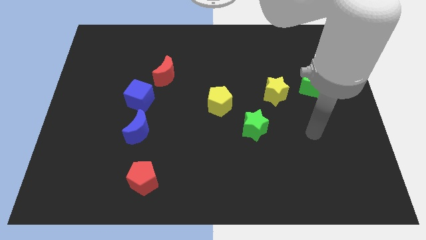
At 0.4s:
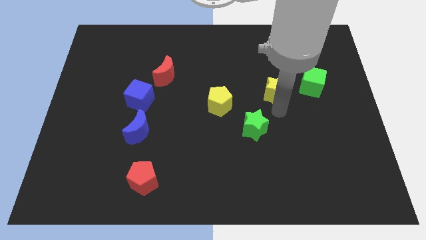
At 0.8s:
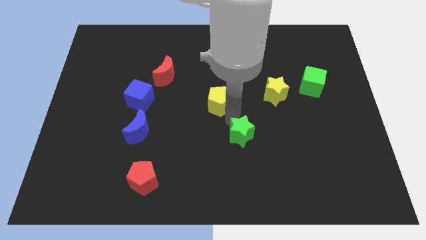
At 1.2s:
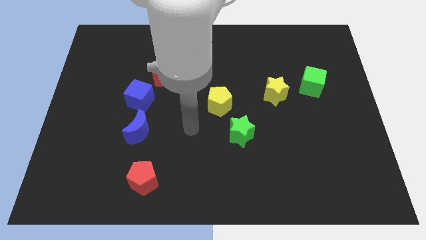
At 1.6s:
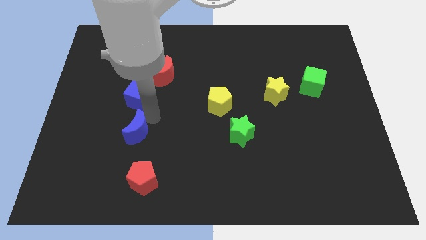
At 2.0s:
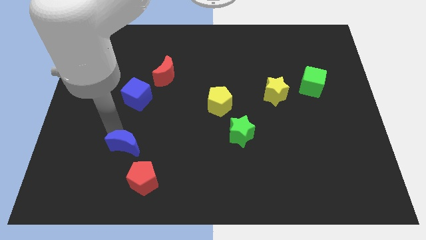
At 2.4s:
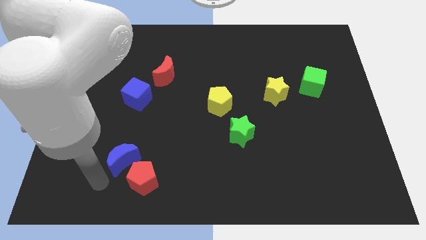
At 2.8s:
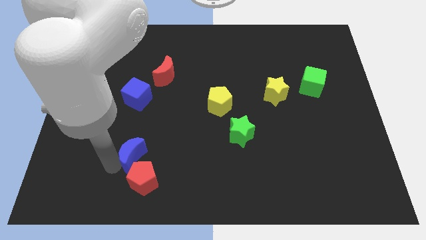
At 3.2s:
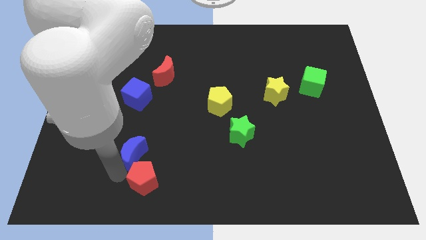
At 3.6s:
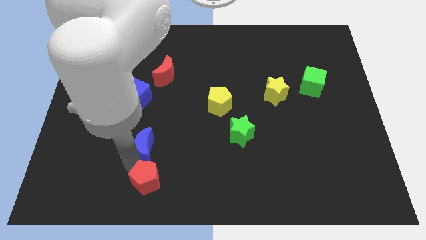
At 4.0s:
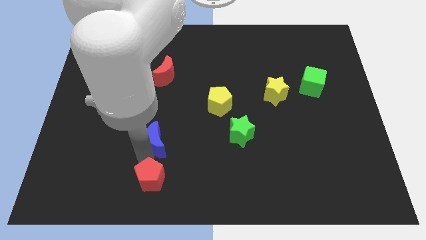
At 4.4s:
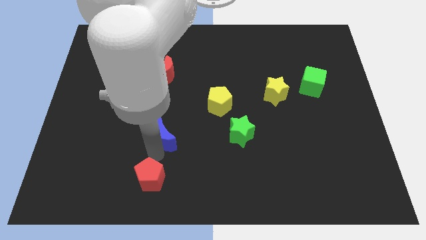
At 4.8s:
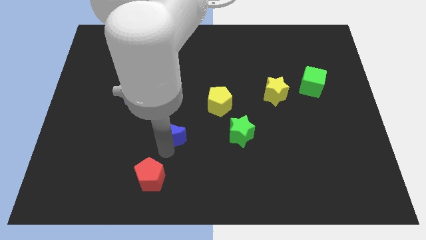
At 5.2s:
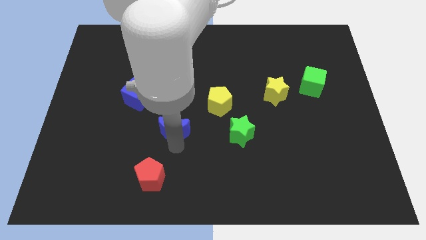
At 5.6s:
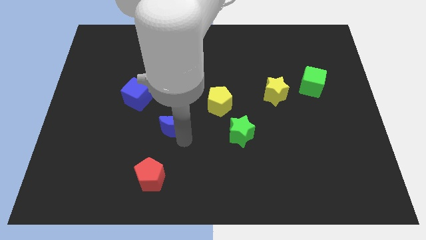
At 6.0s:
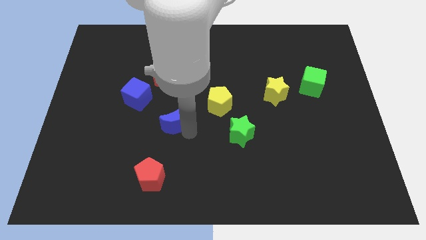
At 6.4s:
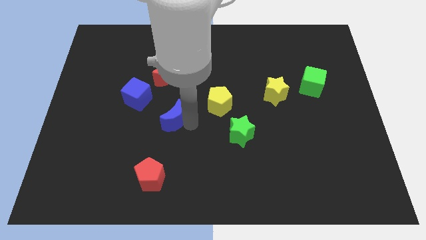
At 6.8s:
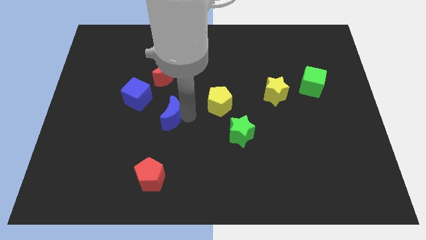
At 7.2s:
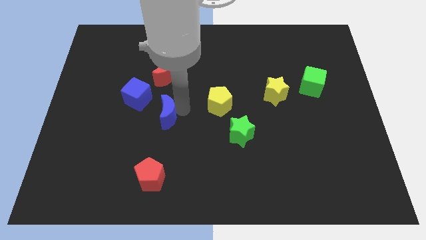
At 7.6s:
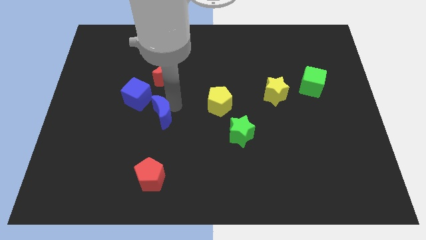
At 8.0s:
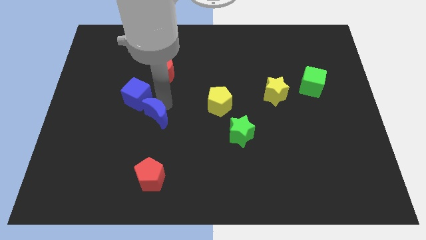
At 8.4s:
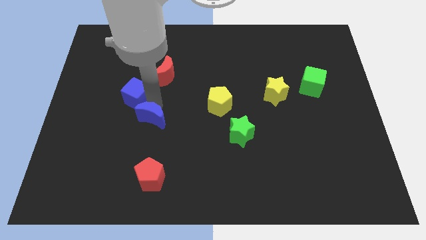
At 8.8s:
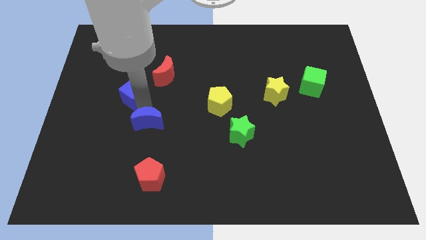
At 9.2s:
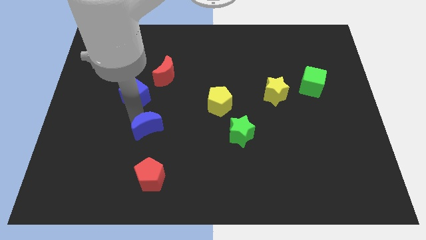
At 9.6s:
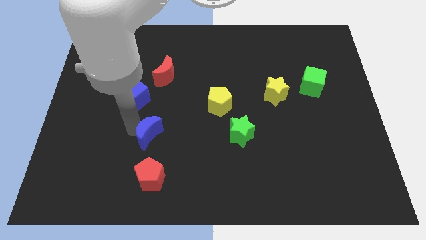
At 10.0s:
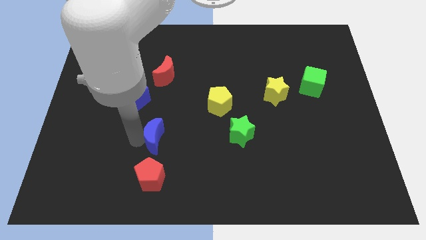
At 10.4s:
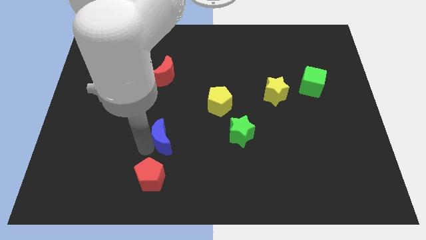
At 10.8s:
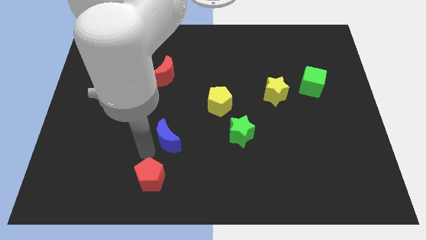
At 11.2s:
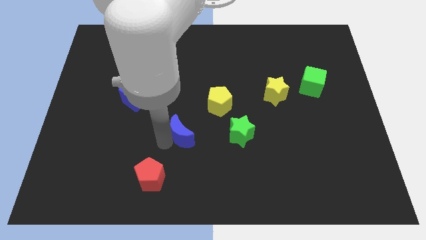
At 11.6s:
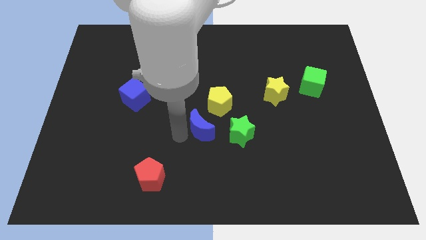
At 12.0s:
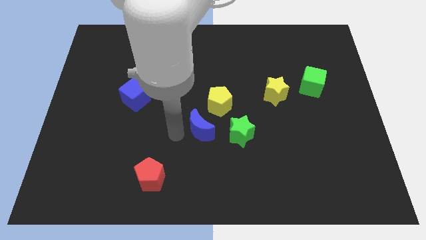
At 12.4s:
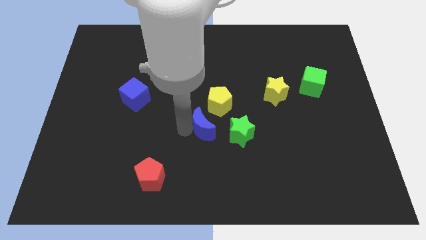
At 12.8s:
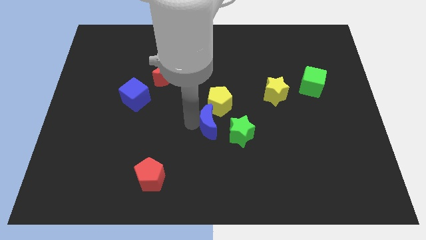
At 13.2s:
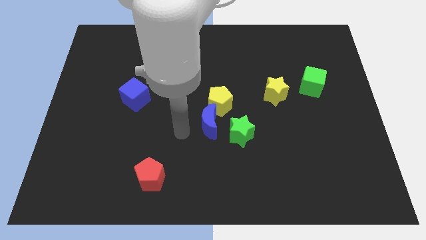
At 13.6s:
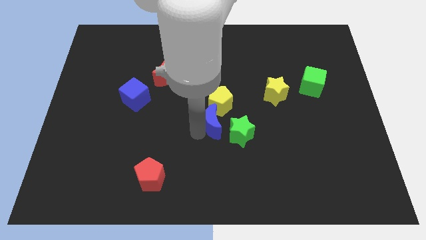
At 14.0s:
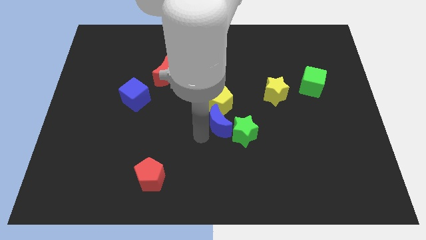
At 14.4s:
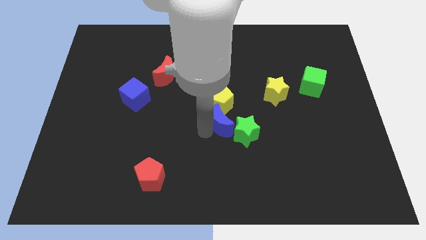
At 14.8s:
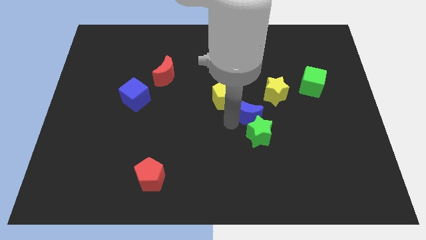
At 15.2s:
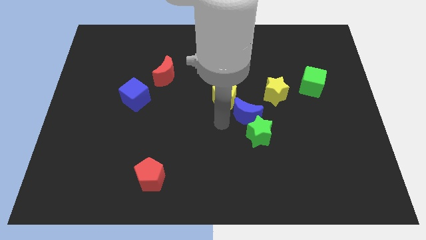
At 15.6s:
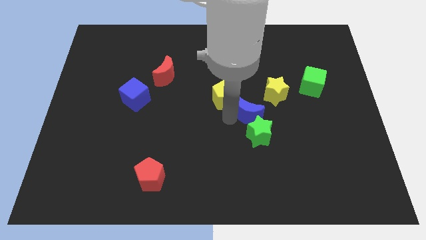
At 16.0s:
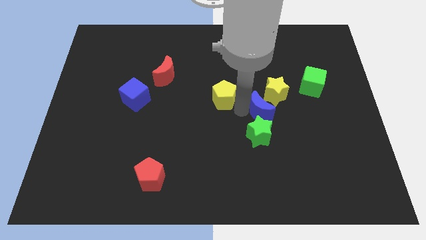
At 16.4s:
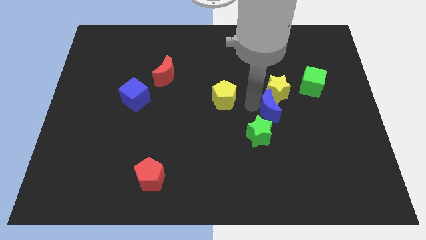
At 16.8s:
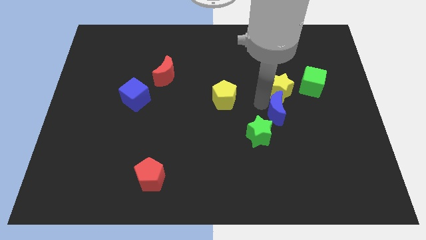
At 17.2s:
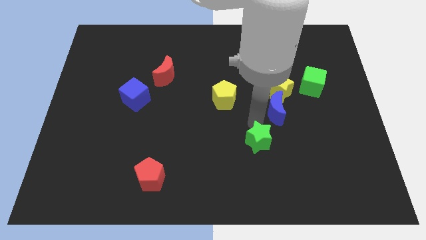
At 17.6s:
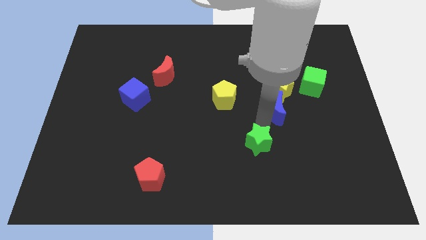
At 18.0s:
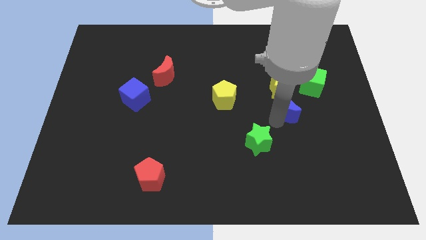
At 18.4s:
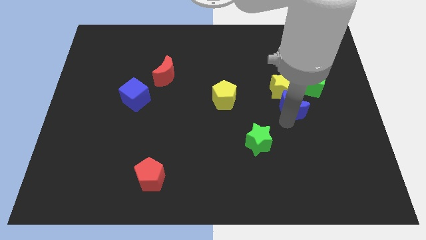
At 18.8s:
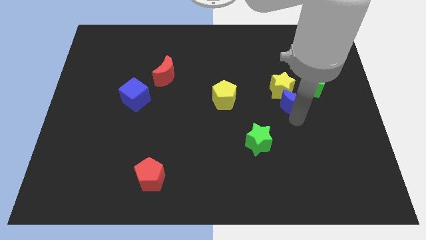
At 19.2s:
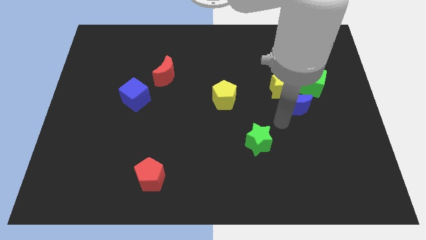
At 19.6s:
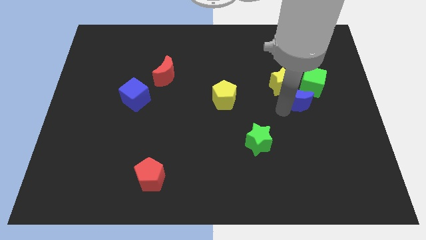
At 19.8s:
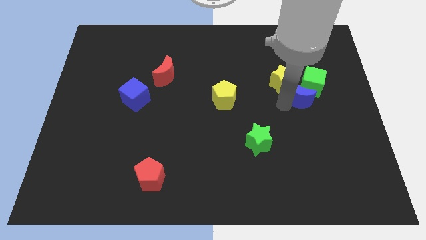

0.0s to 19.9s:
put the blue moon towards the green cube

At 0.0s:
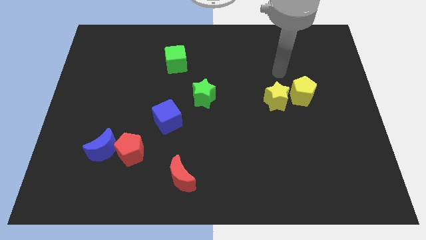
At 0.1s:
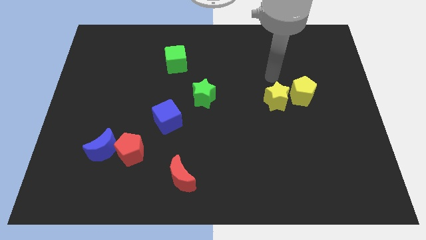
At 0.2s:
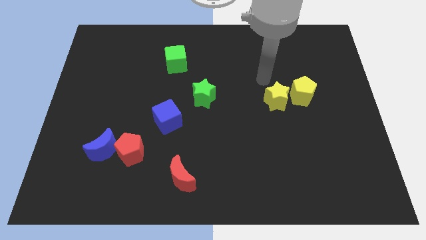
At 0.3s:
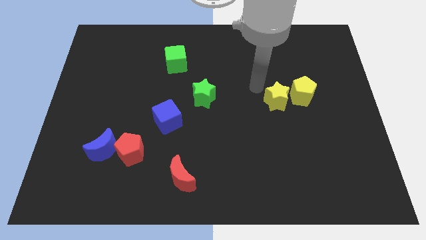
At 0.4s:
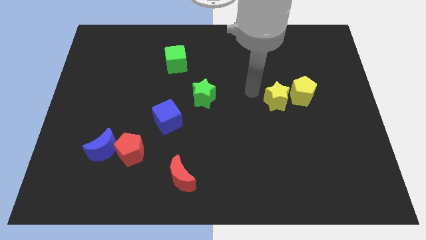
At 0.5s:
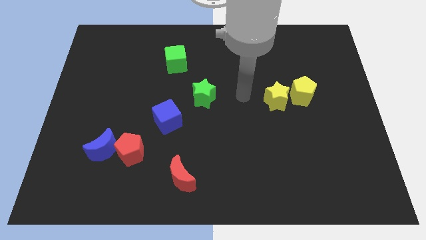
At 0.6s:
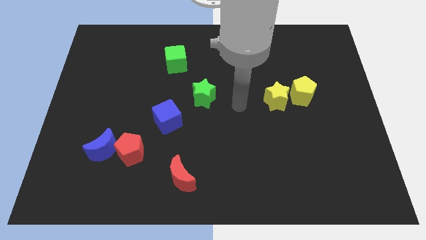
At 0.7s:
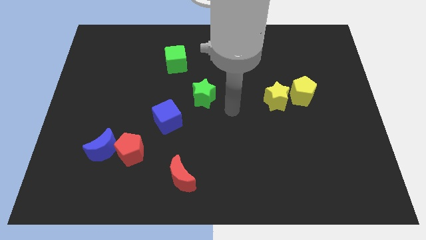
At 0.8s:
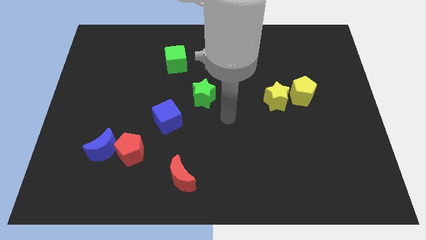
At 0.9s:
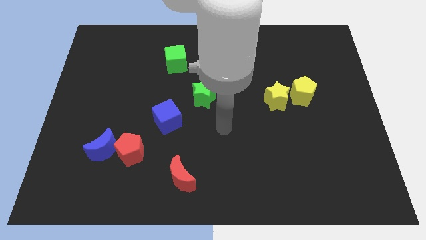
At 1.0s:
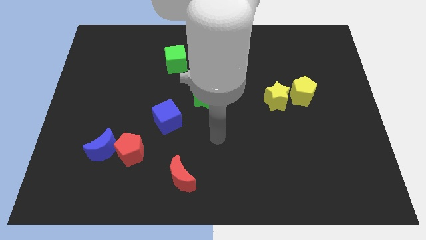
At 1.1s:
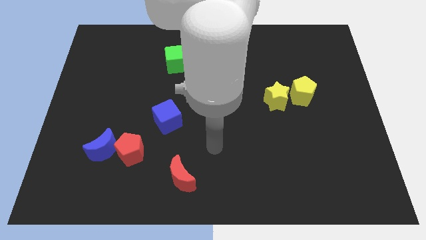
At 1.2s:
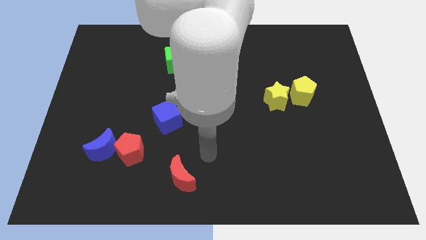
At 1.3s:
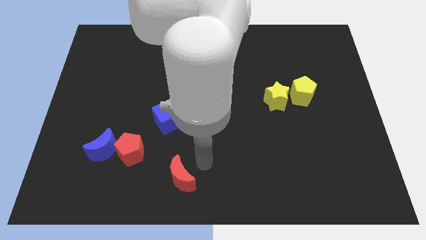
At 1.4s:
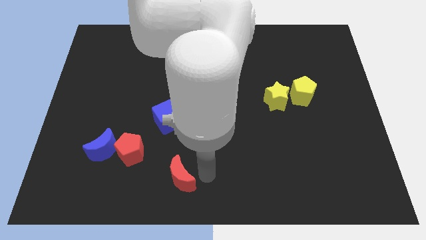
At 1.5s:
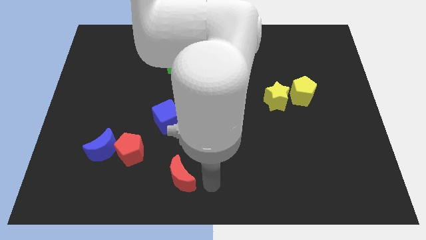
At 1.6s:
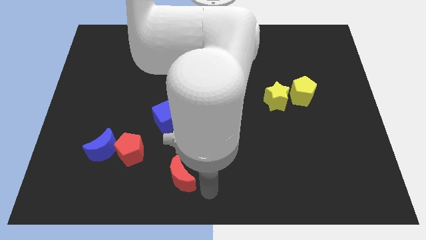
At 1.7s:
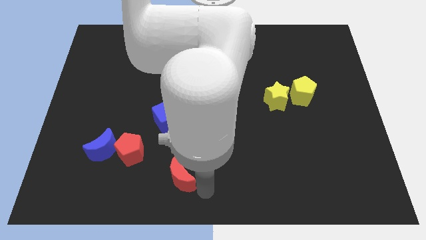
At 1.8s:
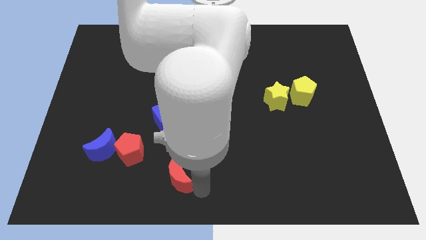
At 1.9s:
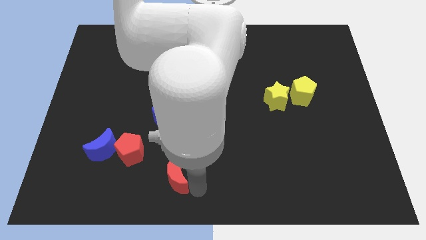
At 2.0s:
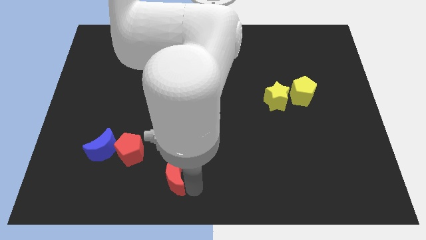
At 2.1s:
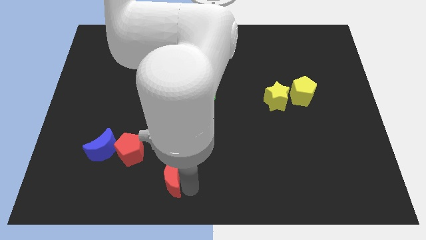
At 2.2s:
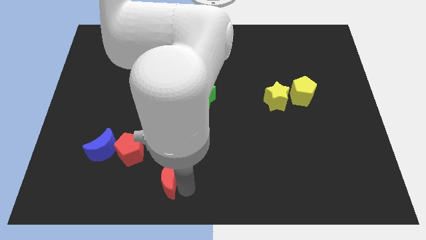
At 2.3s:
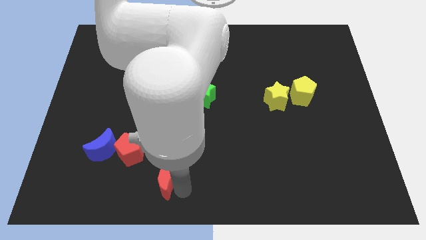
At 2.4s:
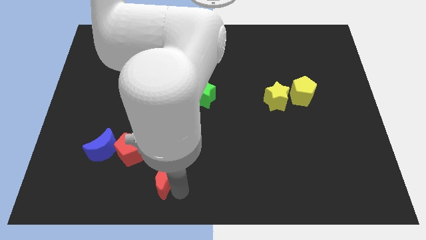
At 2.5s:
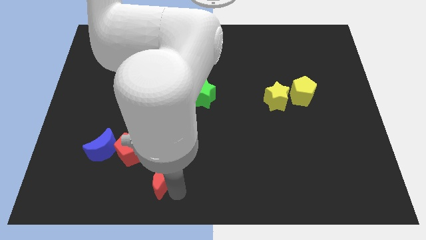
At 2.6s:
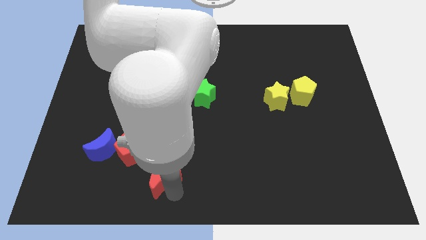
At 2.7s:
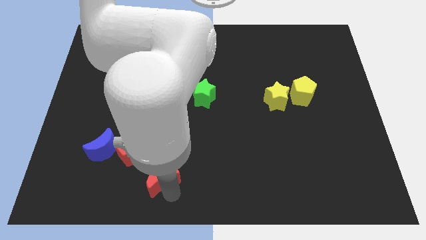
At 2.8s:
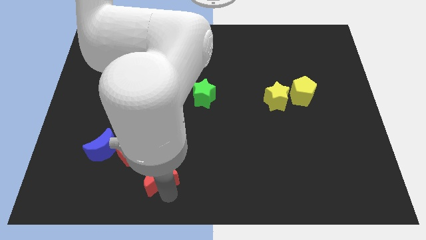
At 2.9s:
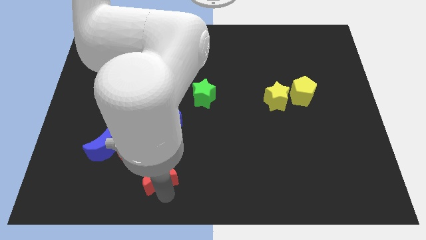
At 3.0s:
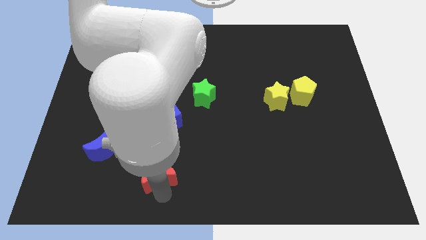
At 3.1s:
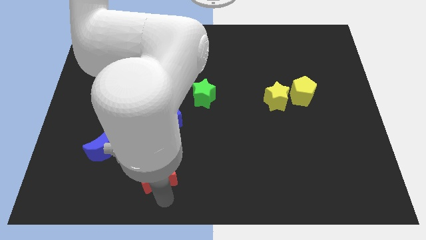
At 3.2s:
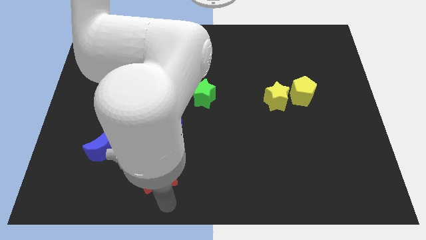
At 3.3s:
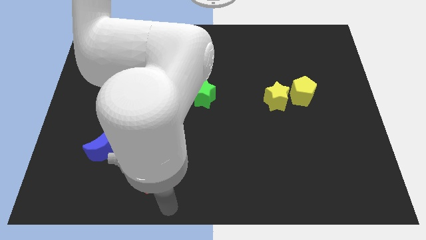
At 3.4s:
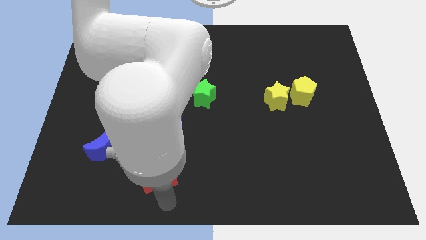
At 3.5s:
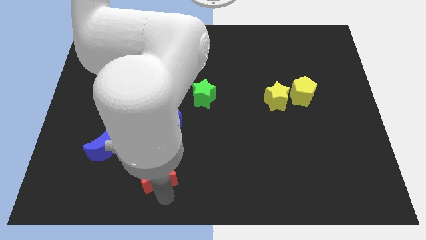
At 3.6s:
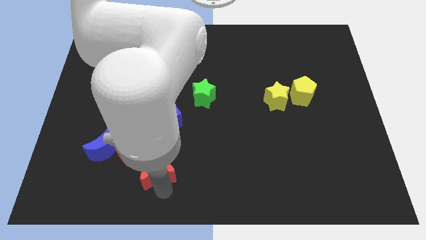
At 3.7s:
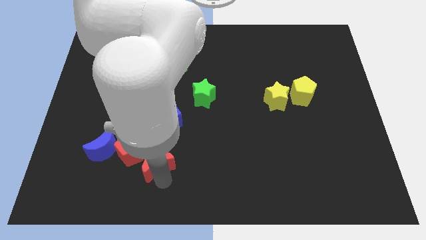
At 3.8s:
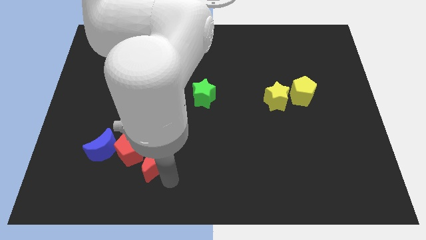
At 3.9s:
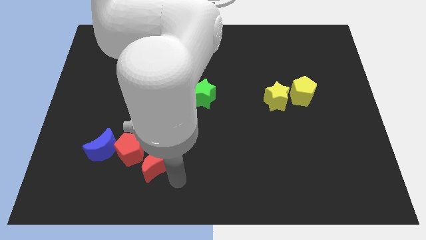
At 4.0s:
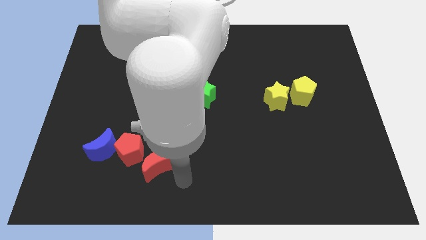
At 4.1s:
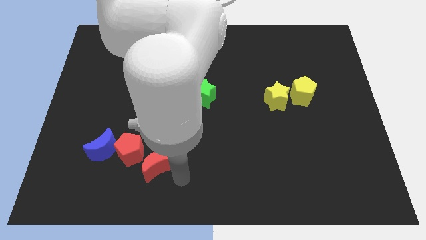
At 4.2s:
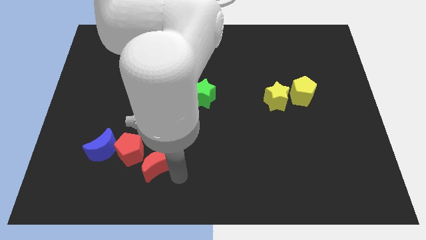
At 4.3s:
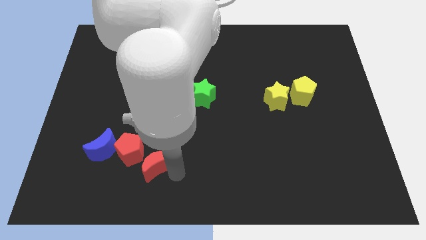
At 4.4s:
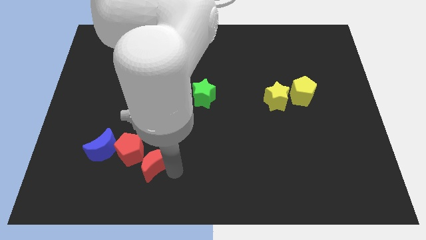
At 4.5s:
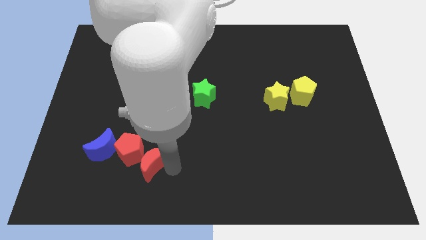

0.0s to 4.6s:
push the red moon next to the red pentagon
